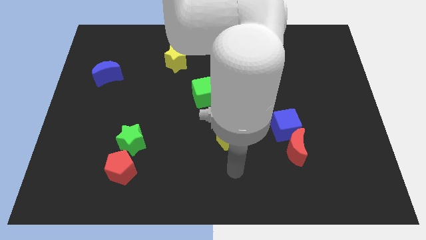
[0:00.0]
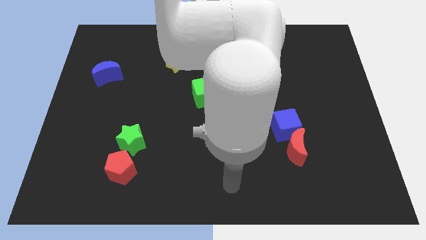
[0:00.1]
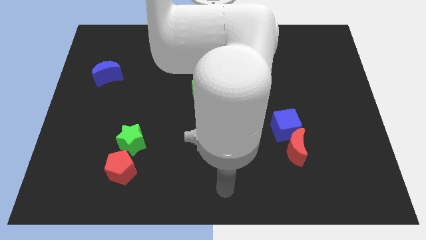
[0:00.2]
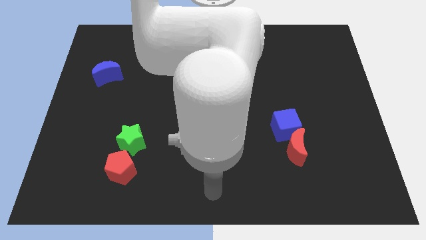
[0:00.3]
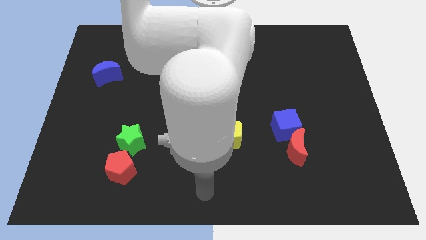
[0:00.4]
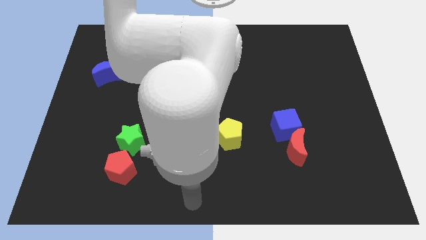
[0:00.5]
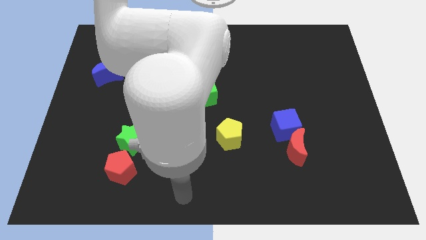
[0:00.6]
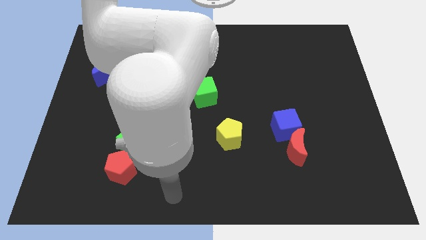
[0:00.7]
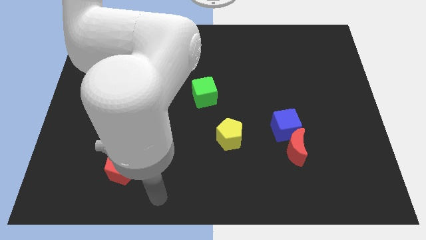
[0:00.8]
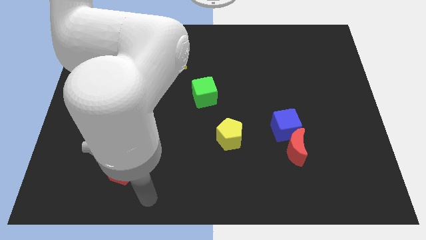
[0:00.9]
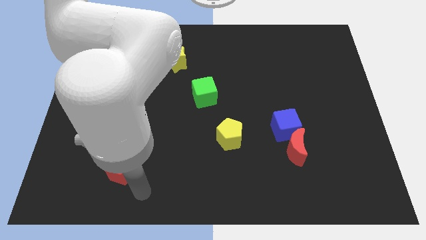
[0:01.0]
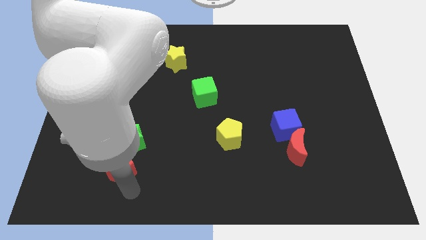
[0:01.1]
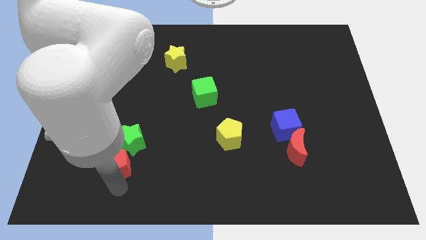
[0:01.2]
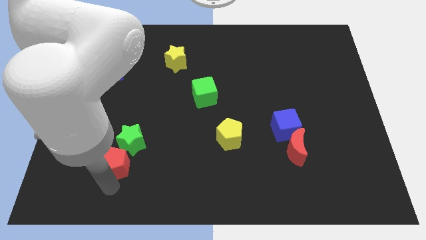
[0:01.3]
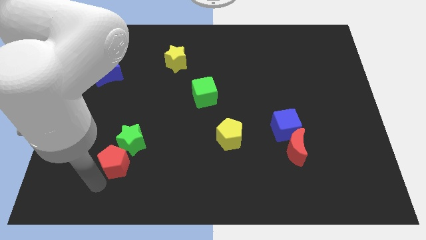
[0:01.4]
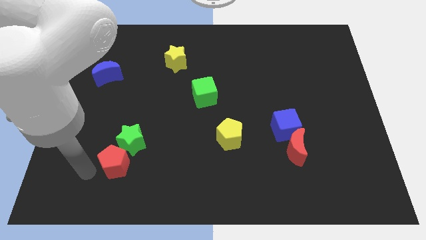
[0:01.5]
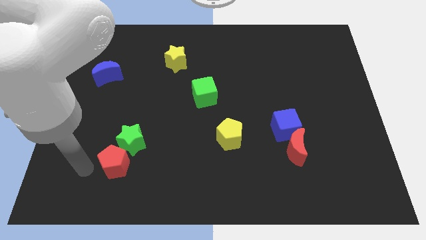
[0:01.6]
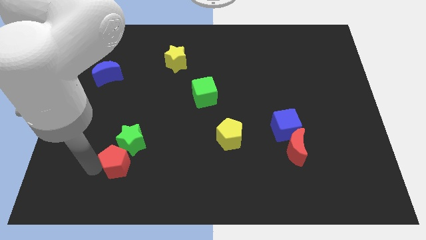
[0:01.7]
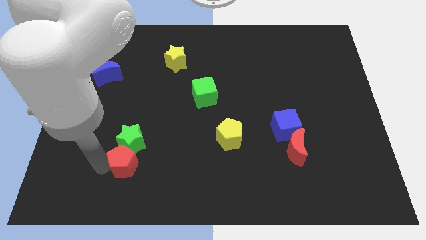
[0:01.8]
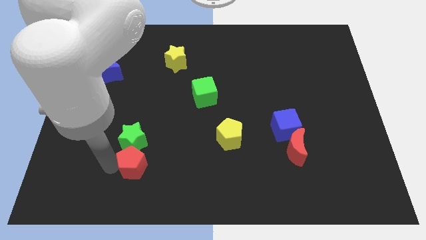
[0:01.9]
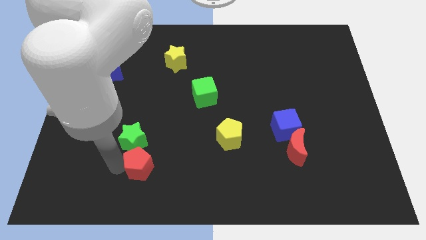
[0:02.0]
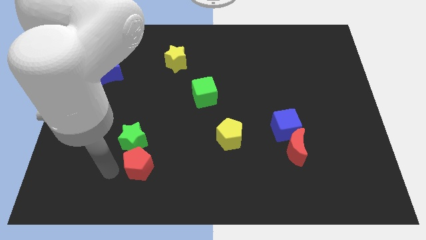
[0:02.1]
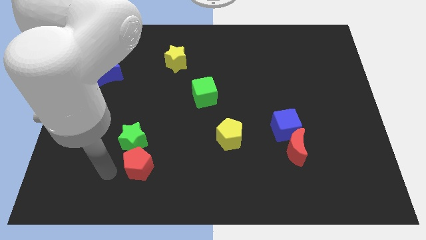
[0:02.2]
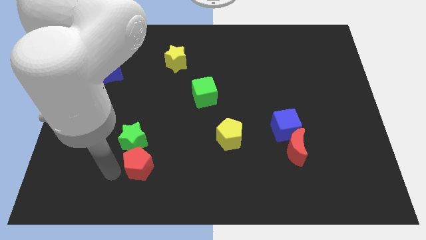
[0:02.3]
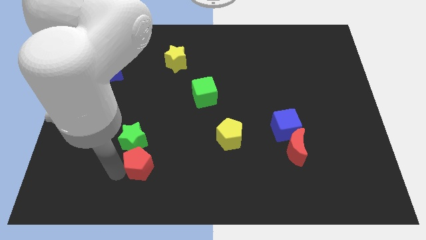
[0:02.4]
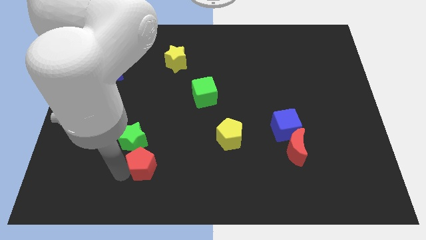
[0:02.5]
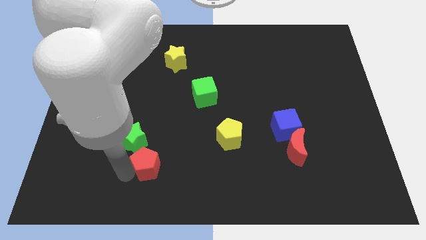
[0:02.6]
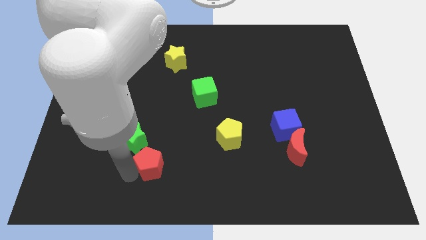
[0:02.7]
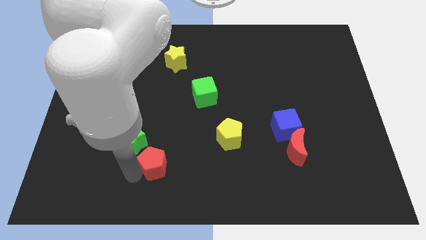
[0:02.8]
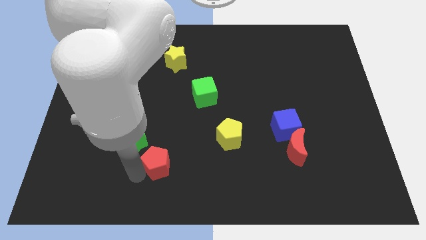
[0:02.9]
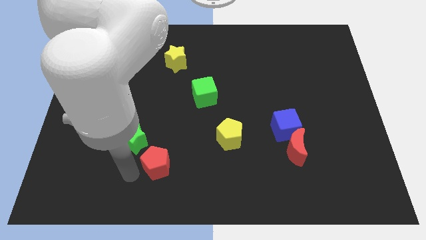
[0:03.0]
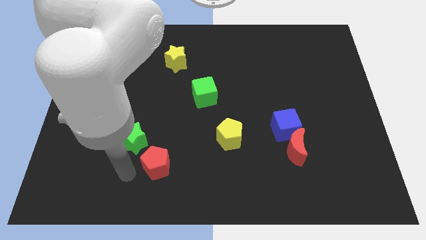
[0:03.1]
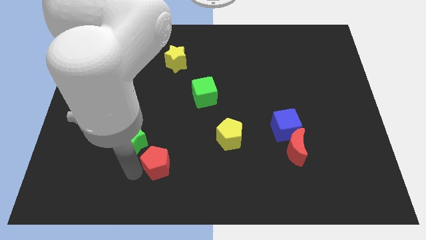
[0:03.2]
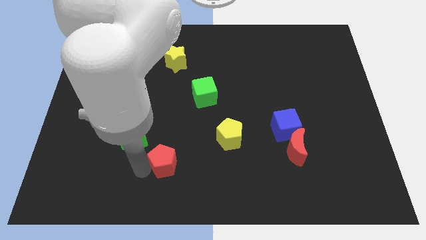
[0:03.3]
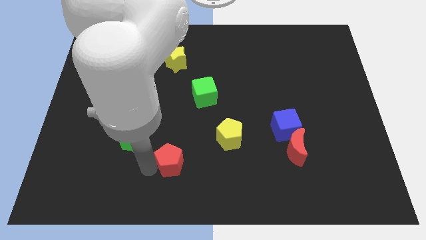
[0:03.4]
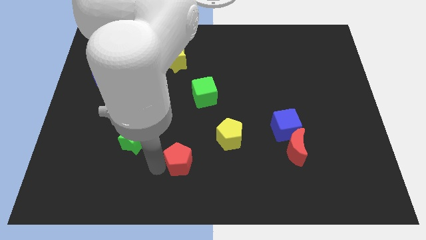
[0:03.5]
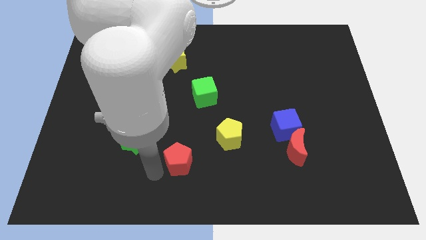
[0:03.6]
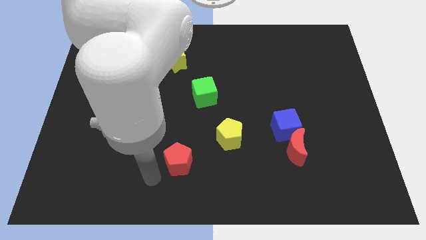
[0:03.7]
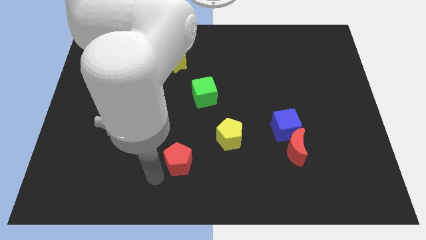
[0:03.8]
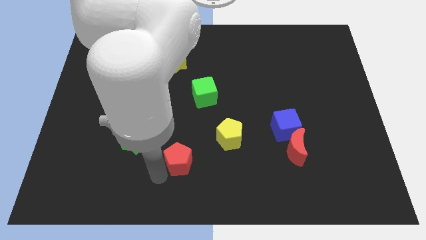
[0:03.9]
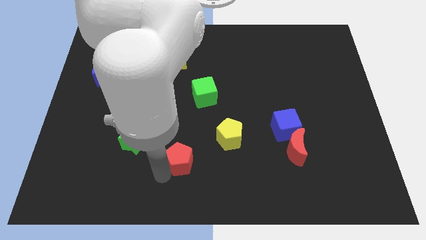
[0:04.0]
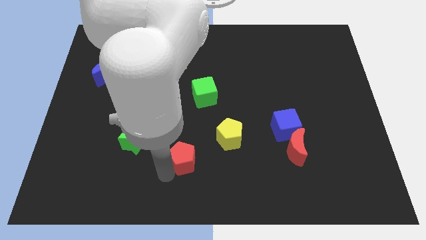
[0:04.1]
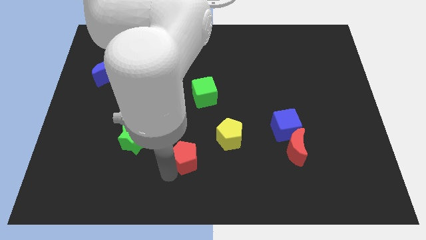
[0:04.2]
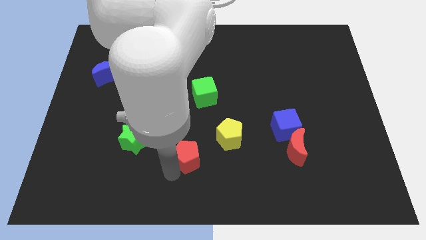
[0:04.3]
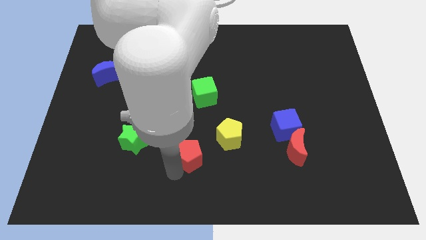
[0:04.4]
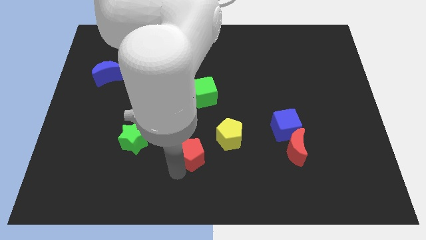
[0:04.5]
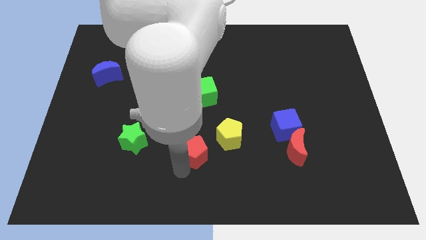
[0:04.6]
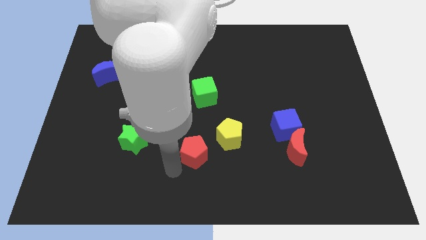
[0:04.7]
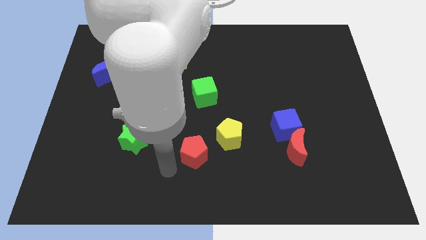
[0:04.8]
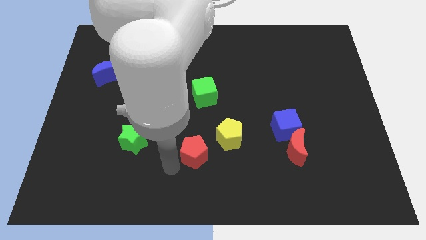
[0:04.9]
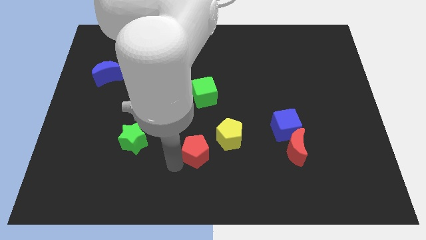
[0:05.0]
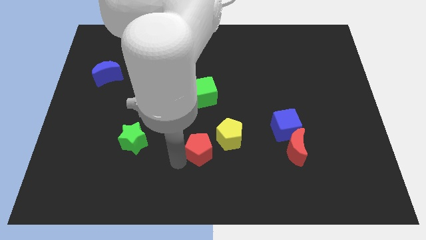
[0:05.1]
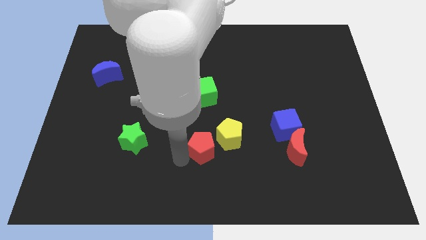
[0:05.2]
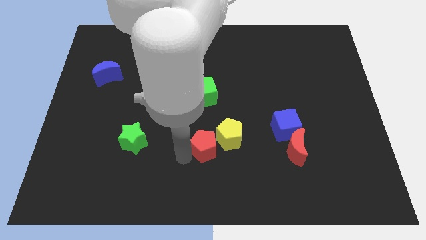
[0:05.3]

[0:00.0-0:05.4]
push the red pentagon next to the yellow pentagon
